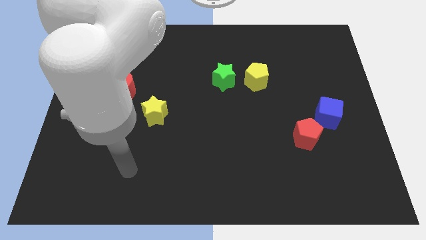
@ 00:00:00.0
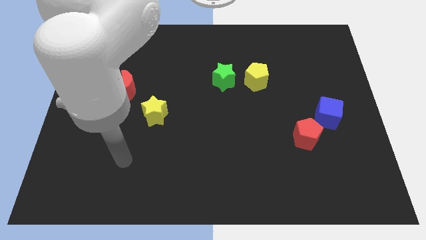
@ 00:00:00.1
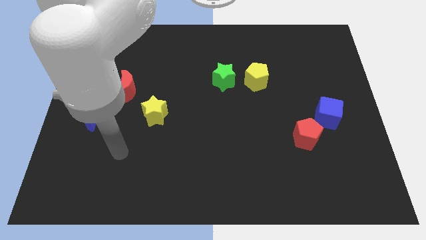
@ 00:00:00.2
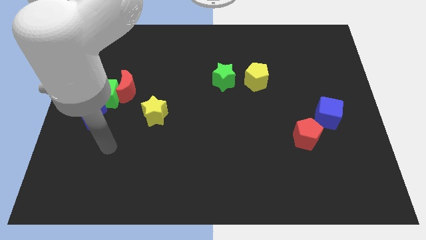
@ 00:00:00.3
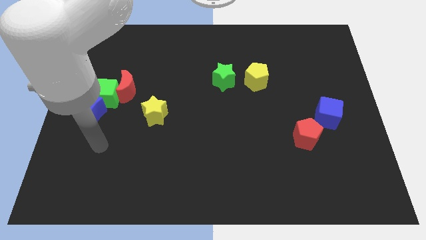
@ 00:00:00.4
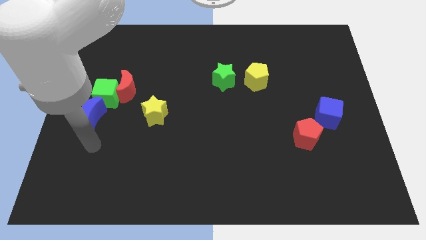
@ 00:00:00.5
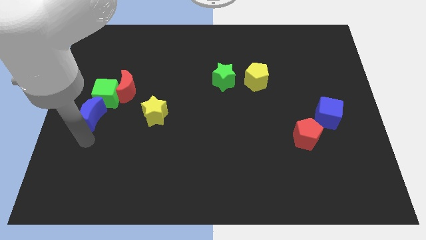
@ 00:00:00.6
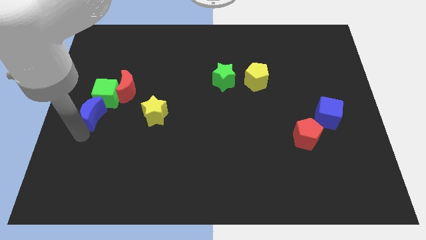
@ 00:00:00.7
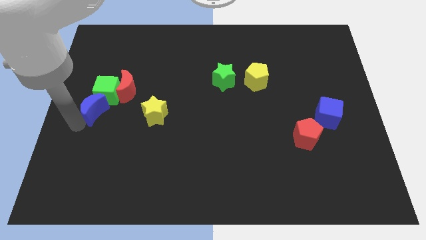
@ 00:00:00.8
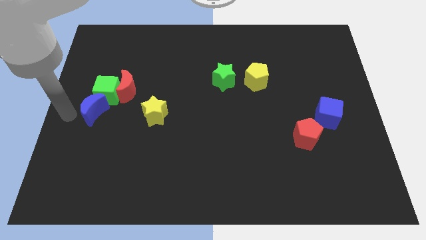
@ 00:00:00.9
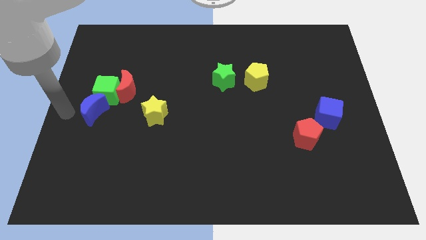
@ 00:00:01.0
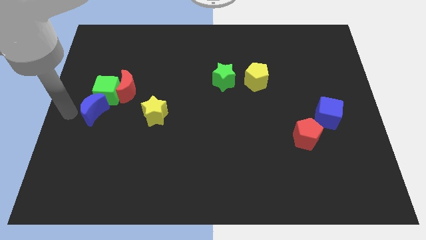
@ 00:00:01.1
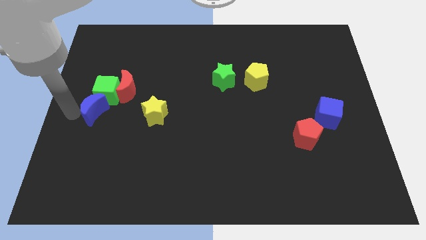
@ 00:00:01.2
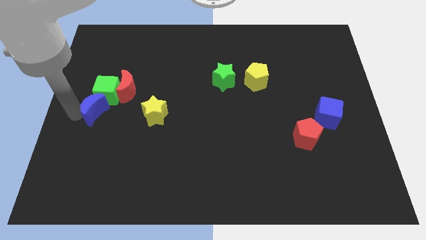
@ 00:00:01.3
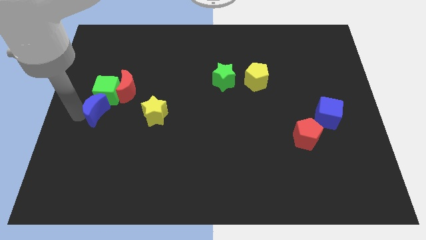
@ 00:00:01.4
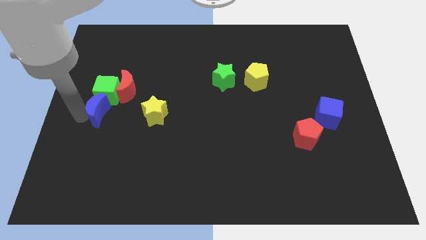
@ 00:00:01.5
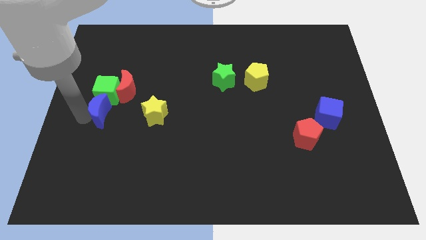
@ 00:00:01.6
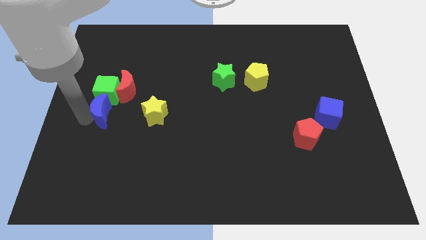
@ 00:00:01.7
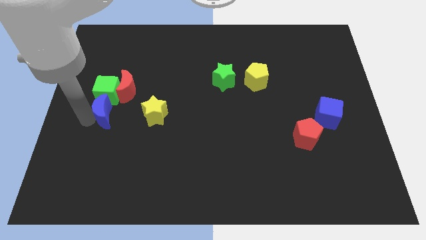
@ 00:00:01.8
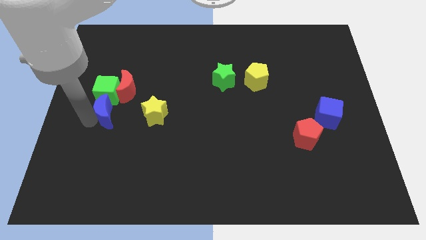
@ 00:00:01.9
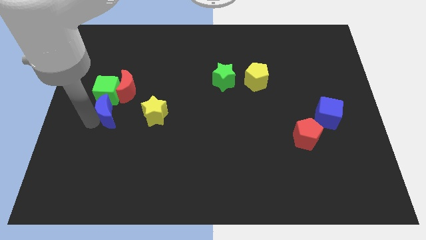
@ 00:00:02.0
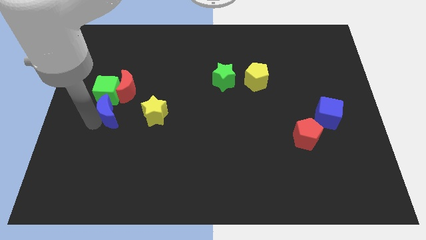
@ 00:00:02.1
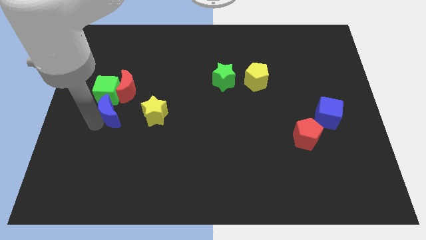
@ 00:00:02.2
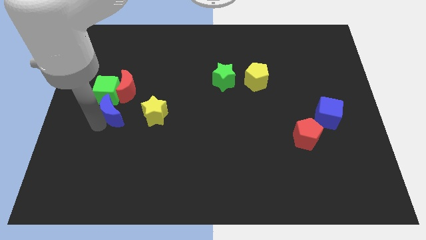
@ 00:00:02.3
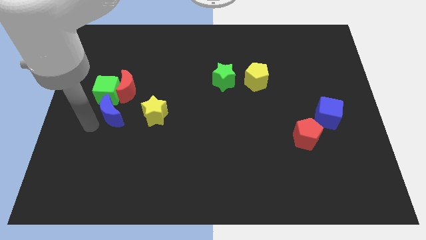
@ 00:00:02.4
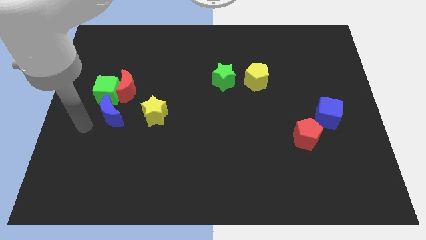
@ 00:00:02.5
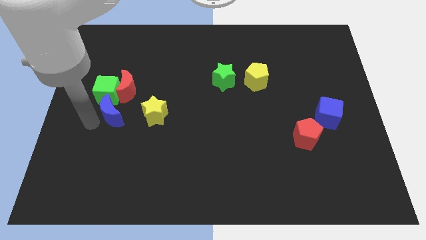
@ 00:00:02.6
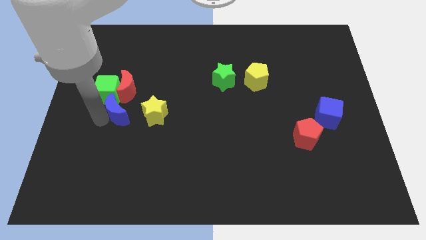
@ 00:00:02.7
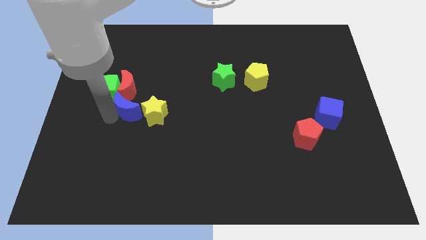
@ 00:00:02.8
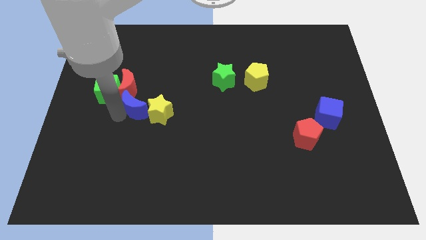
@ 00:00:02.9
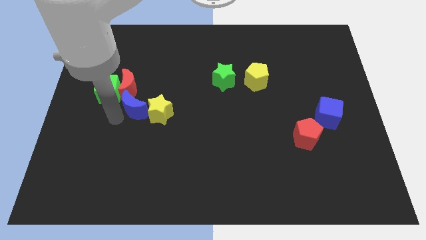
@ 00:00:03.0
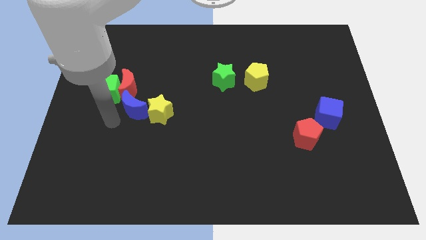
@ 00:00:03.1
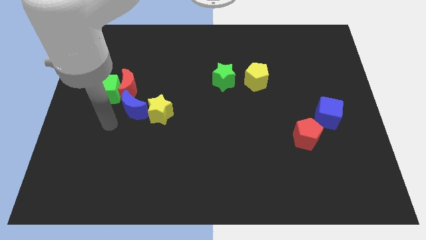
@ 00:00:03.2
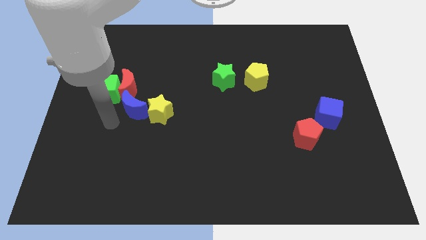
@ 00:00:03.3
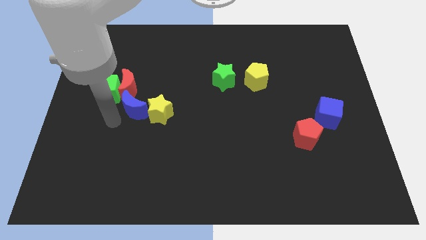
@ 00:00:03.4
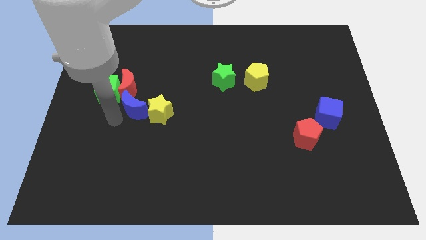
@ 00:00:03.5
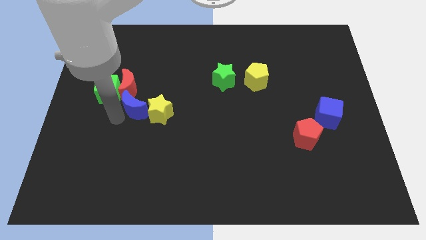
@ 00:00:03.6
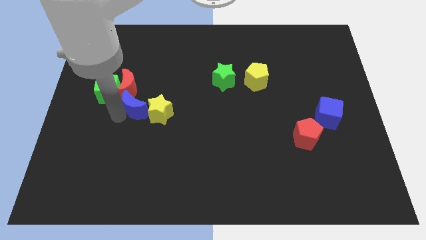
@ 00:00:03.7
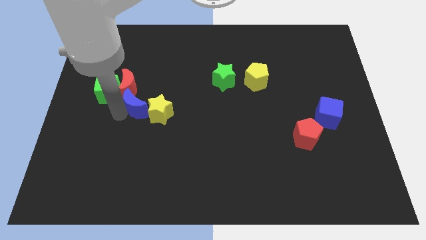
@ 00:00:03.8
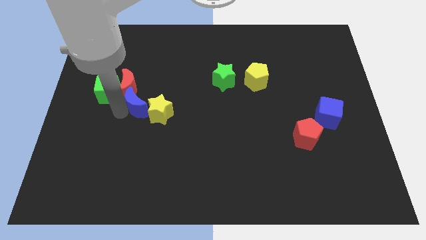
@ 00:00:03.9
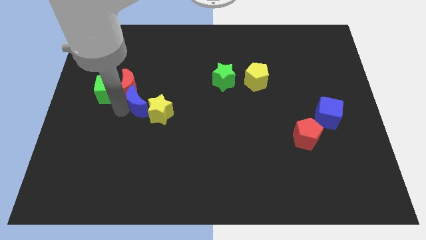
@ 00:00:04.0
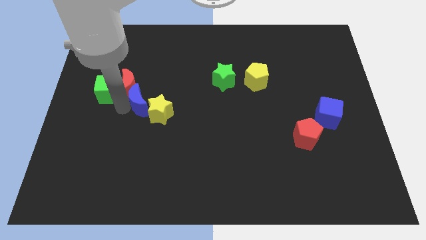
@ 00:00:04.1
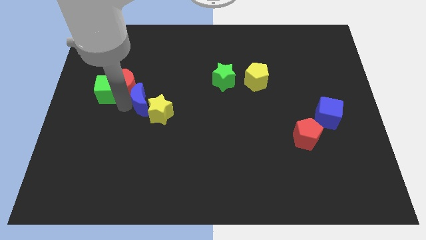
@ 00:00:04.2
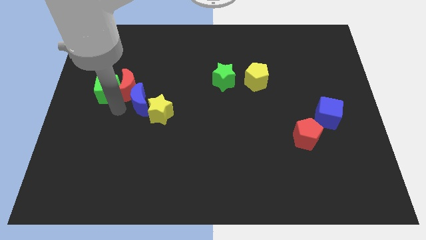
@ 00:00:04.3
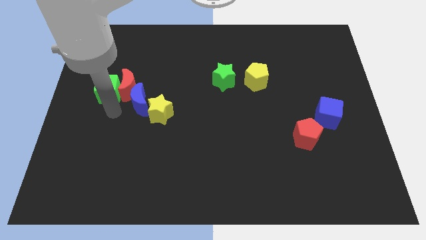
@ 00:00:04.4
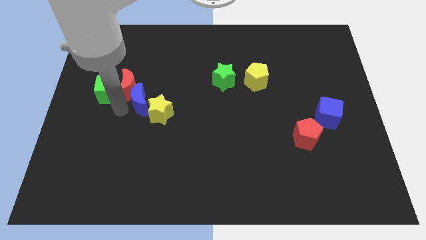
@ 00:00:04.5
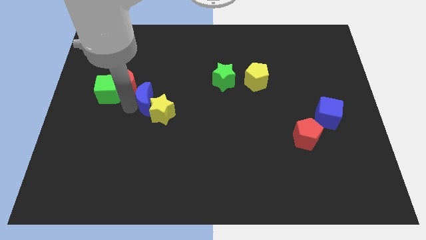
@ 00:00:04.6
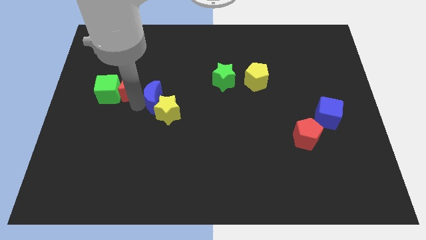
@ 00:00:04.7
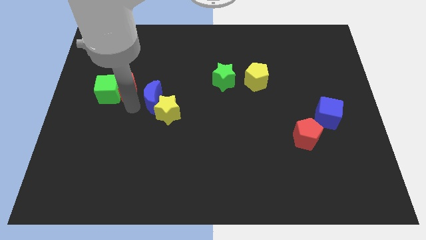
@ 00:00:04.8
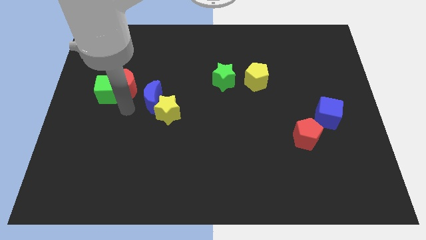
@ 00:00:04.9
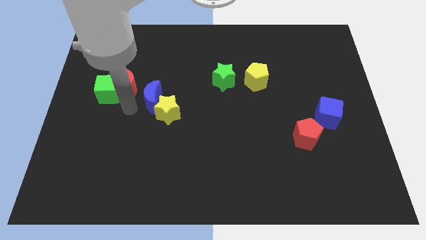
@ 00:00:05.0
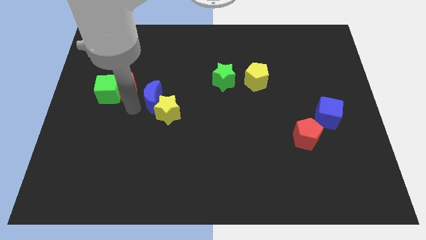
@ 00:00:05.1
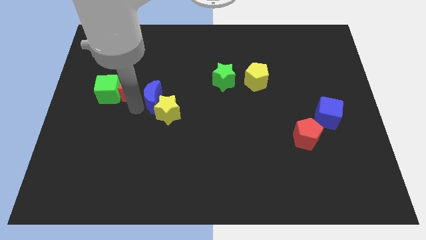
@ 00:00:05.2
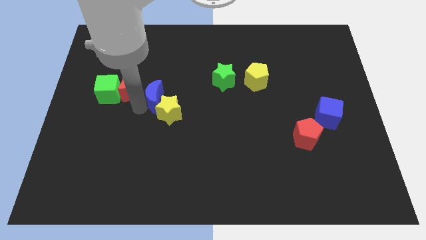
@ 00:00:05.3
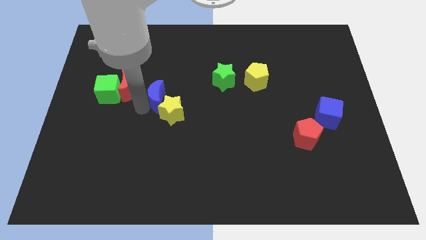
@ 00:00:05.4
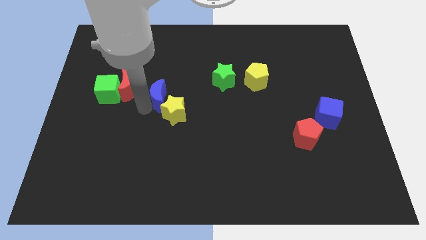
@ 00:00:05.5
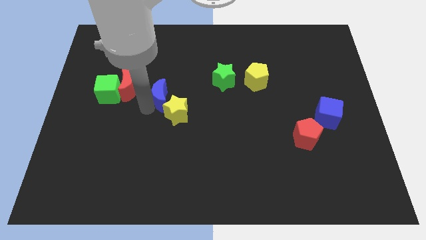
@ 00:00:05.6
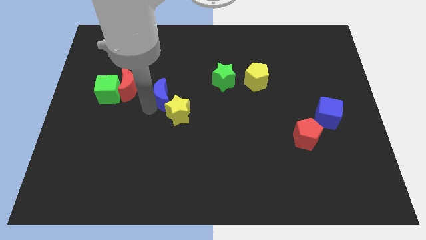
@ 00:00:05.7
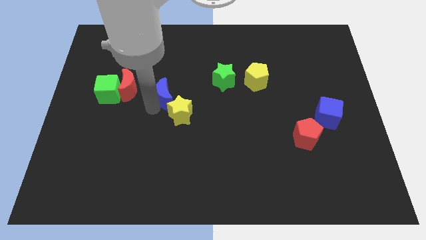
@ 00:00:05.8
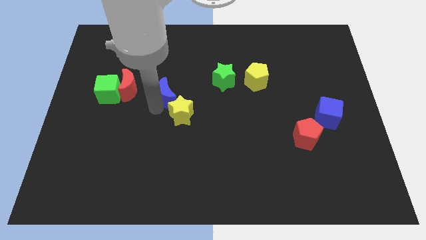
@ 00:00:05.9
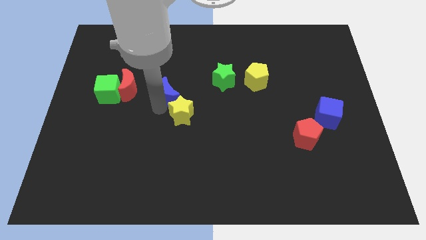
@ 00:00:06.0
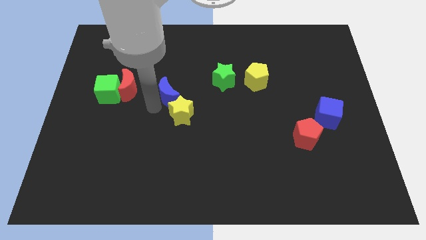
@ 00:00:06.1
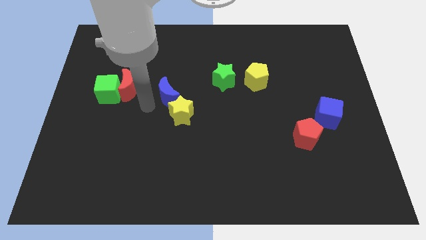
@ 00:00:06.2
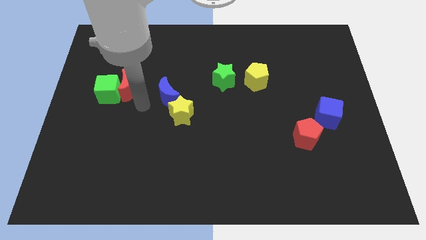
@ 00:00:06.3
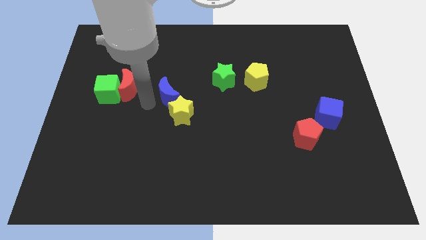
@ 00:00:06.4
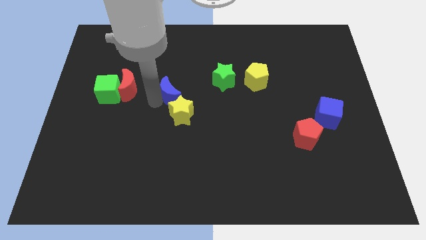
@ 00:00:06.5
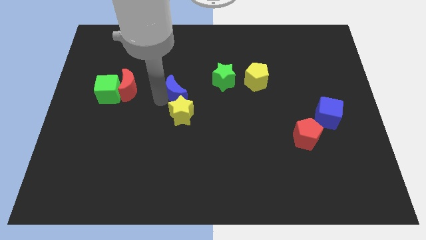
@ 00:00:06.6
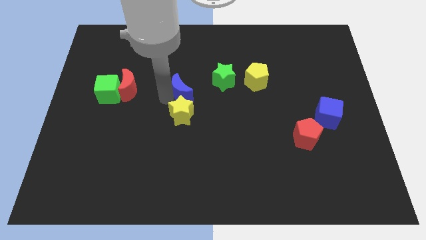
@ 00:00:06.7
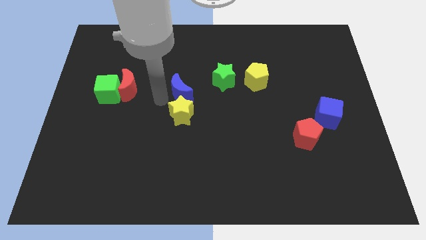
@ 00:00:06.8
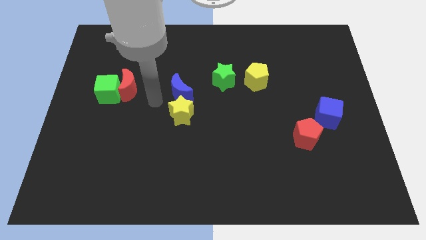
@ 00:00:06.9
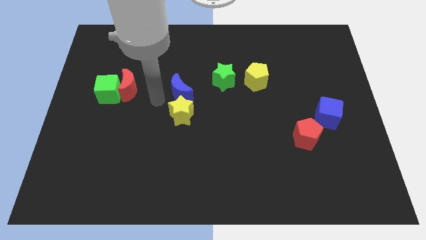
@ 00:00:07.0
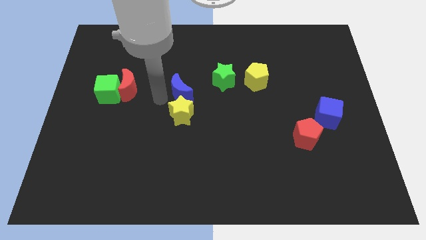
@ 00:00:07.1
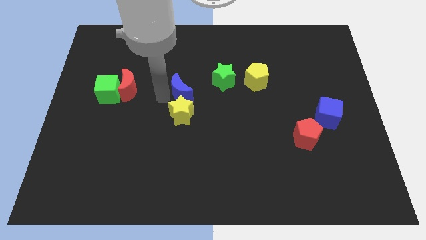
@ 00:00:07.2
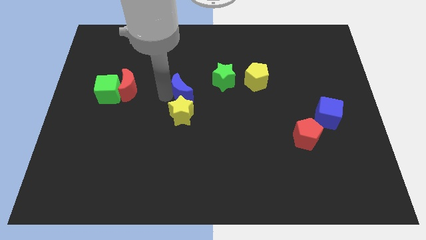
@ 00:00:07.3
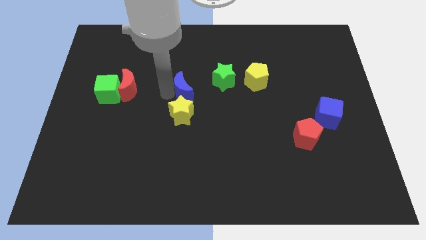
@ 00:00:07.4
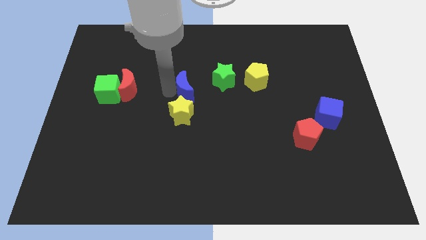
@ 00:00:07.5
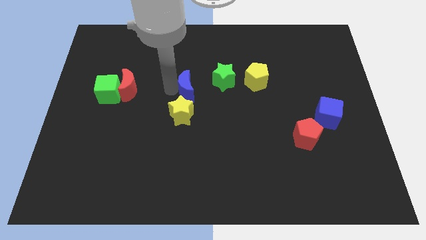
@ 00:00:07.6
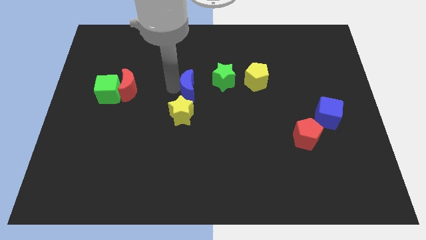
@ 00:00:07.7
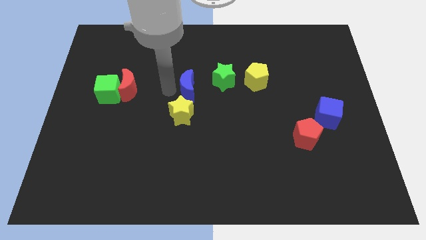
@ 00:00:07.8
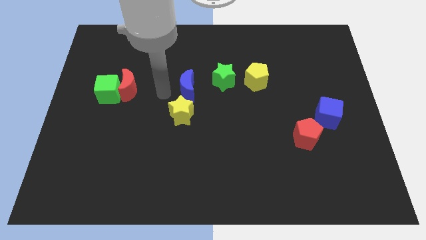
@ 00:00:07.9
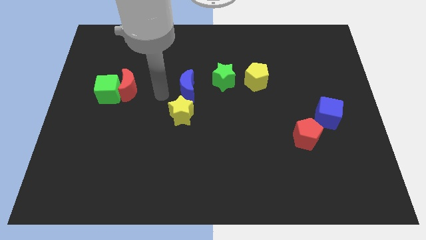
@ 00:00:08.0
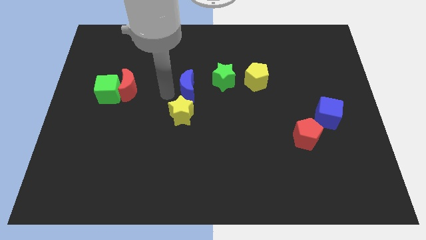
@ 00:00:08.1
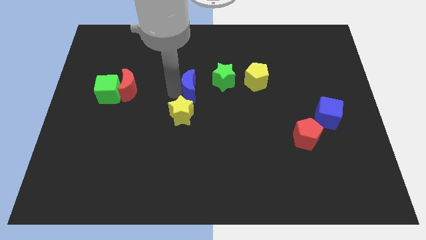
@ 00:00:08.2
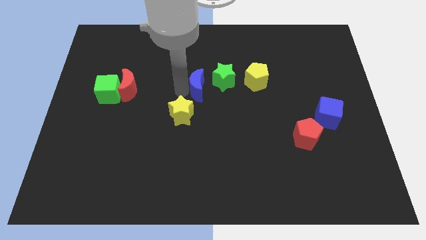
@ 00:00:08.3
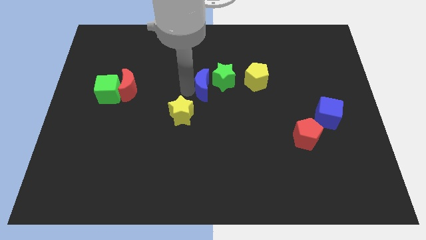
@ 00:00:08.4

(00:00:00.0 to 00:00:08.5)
move the blue moon next to the green star
